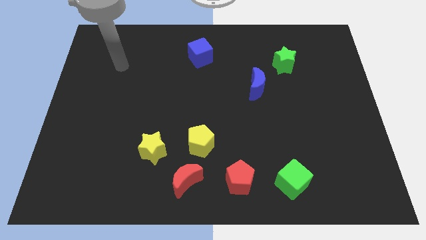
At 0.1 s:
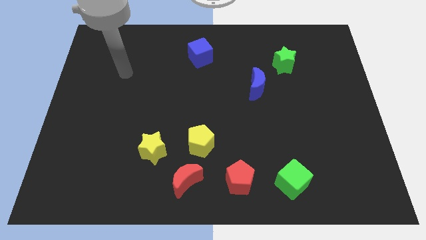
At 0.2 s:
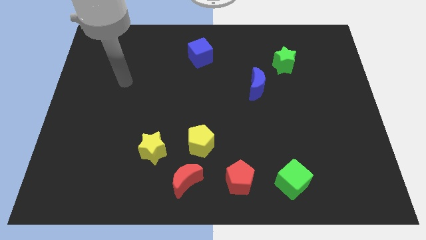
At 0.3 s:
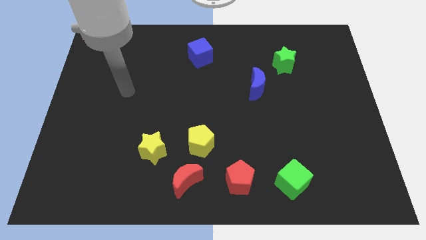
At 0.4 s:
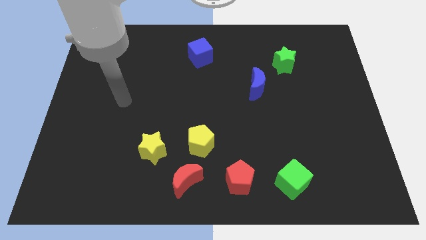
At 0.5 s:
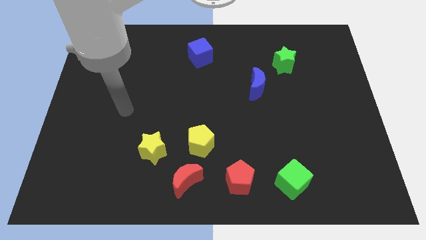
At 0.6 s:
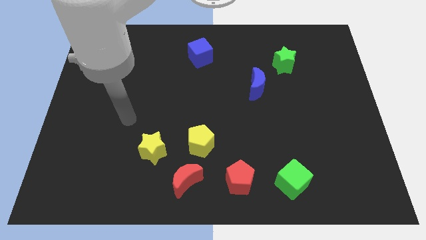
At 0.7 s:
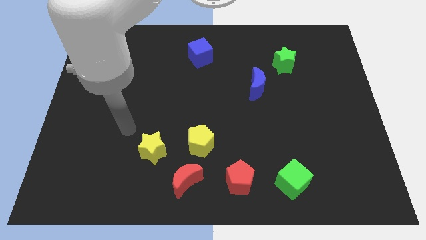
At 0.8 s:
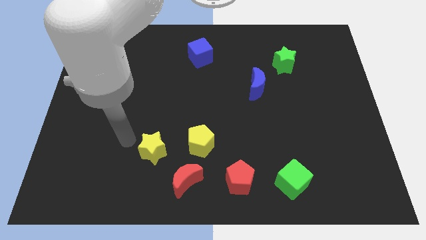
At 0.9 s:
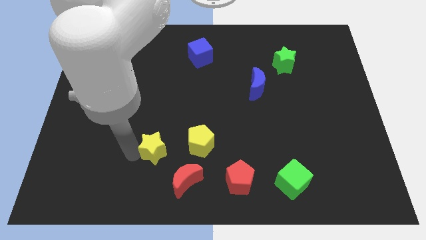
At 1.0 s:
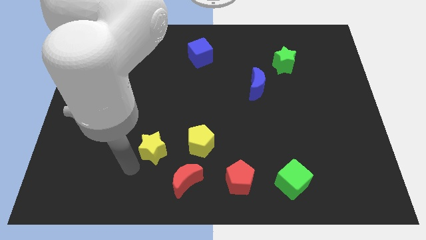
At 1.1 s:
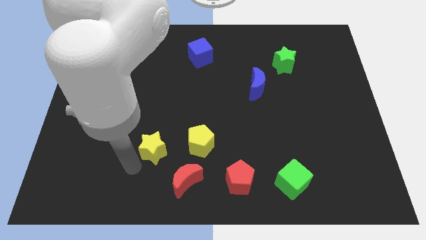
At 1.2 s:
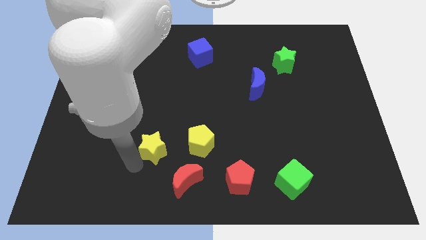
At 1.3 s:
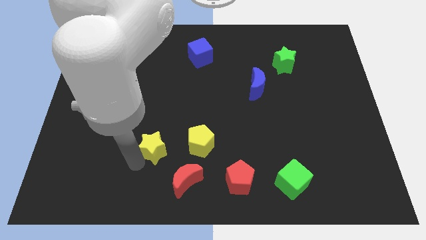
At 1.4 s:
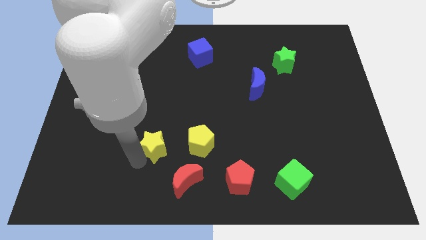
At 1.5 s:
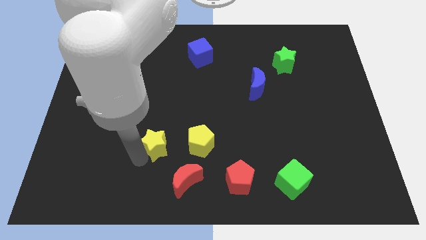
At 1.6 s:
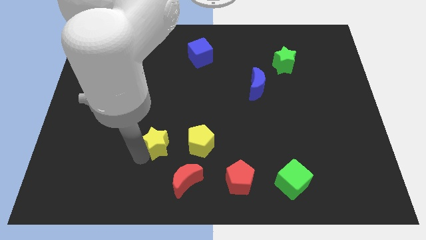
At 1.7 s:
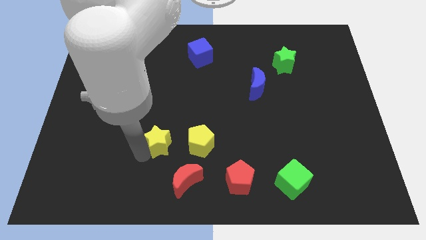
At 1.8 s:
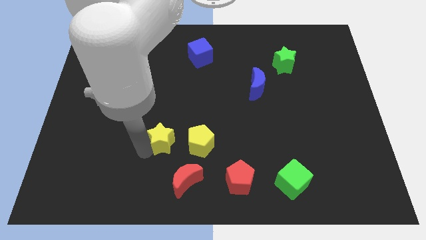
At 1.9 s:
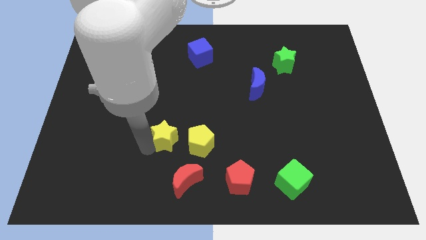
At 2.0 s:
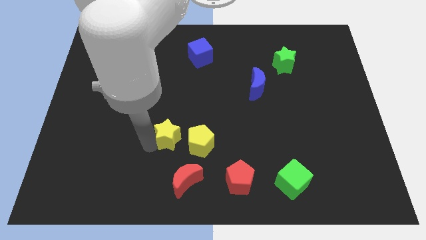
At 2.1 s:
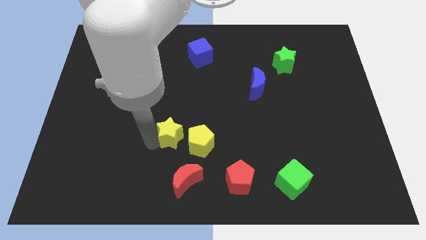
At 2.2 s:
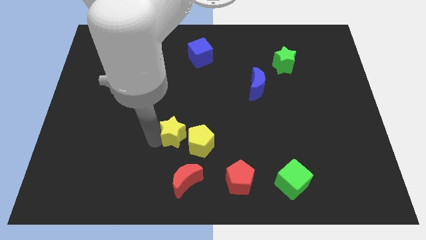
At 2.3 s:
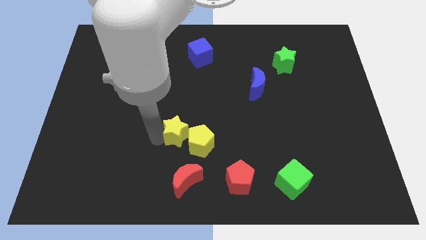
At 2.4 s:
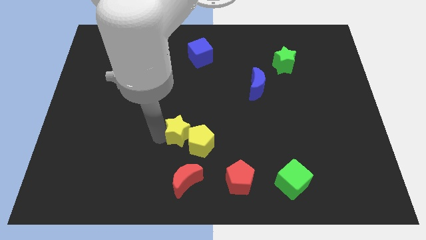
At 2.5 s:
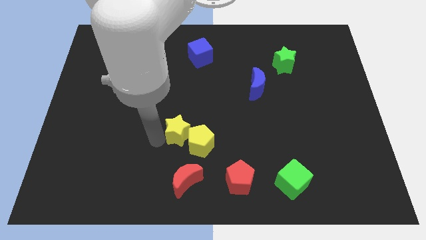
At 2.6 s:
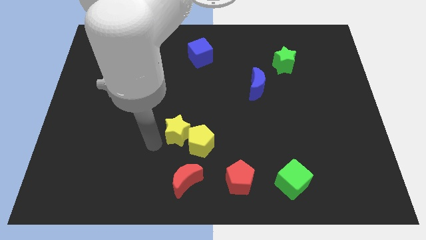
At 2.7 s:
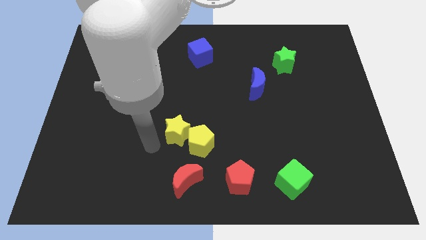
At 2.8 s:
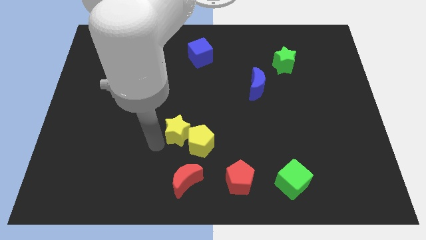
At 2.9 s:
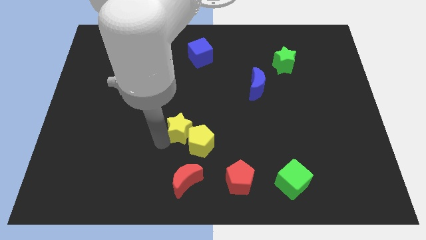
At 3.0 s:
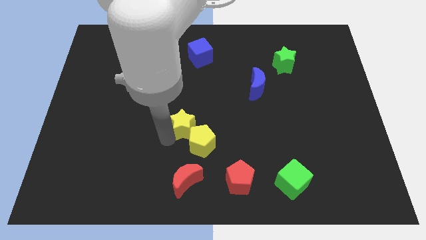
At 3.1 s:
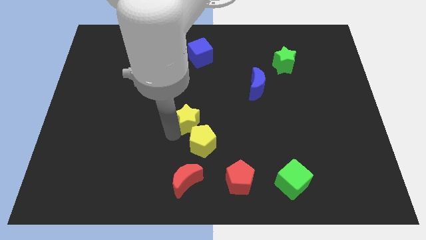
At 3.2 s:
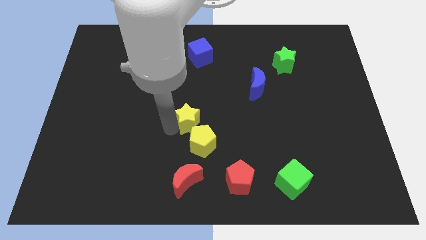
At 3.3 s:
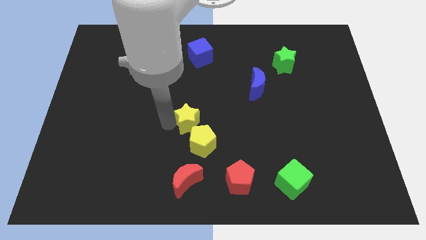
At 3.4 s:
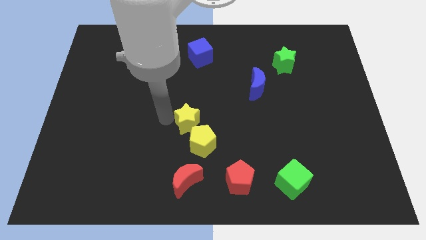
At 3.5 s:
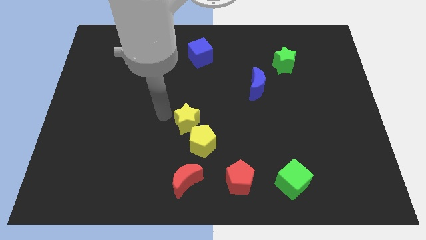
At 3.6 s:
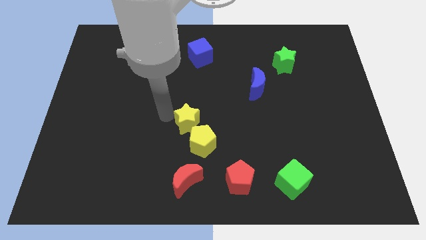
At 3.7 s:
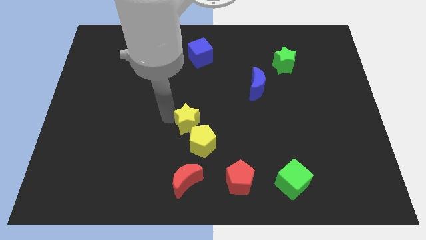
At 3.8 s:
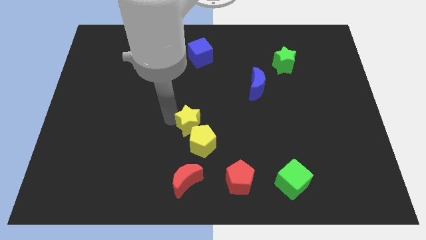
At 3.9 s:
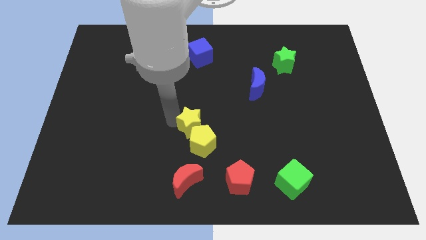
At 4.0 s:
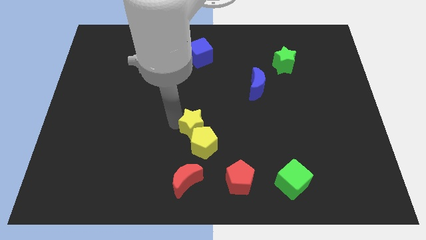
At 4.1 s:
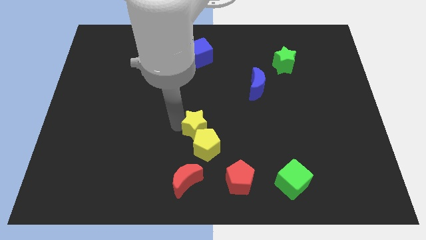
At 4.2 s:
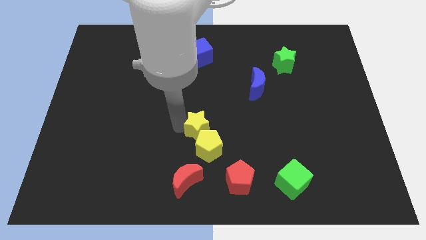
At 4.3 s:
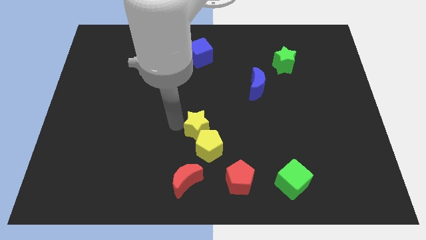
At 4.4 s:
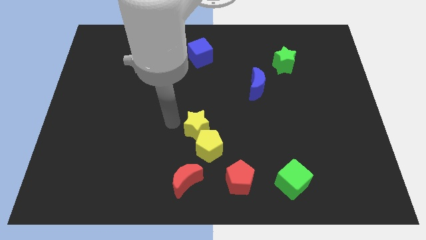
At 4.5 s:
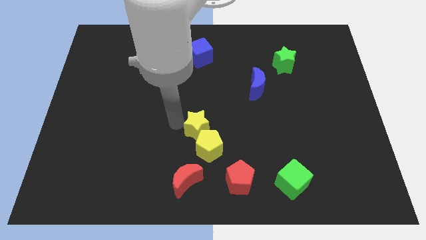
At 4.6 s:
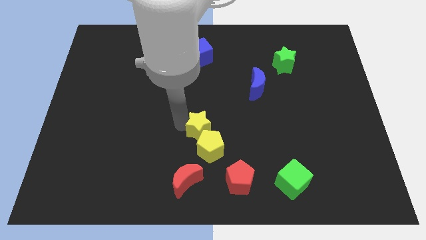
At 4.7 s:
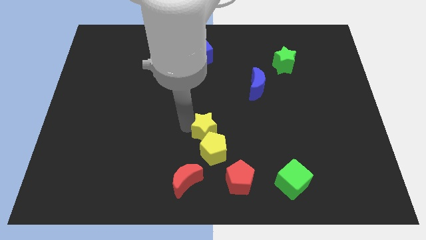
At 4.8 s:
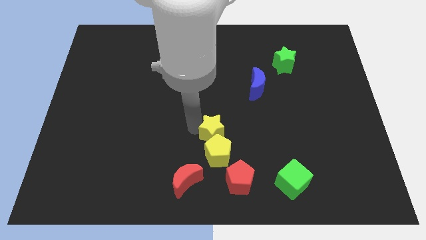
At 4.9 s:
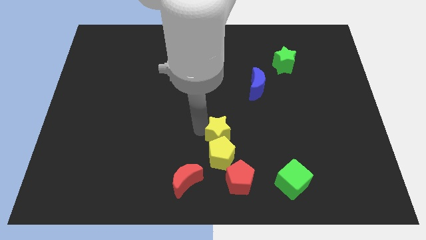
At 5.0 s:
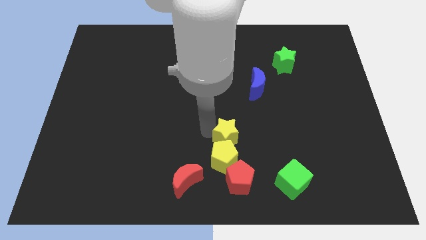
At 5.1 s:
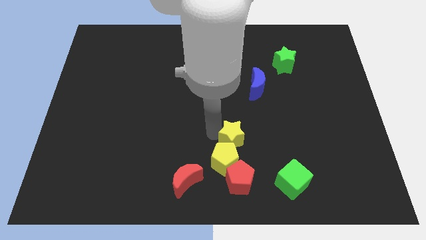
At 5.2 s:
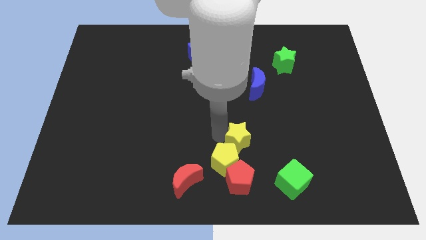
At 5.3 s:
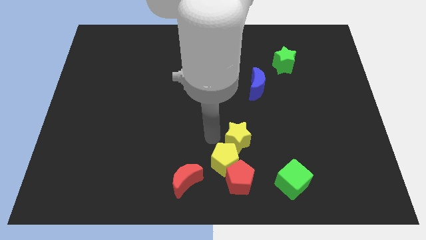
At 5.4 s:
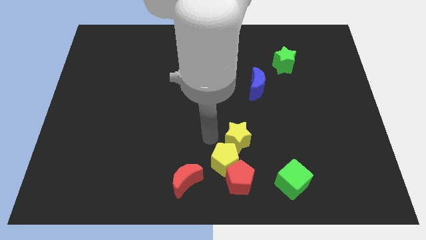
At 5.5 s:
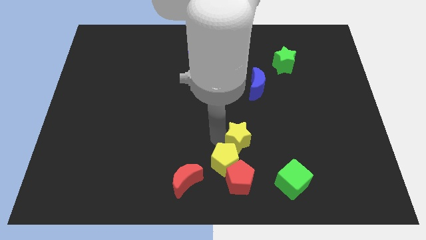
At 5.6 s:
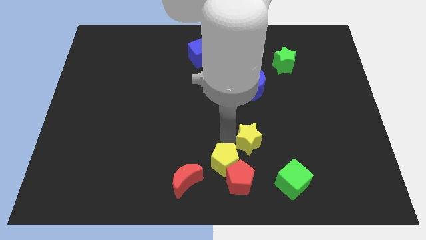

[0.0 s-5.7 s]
slide the yellow star right

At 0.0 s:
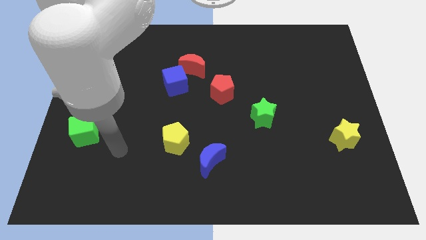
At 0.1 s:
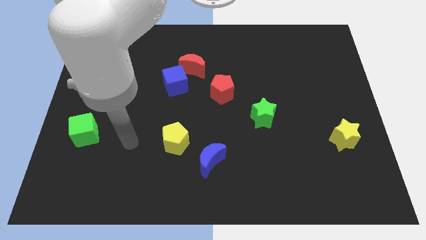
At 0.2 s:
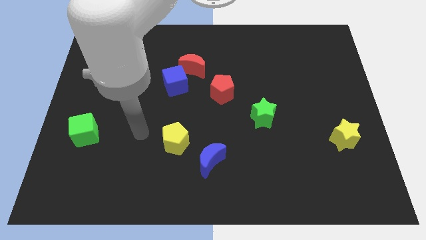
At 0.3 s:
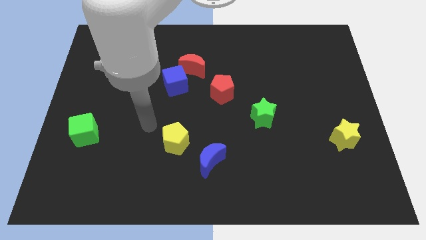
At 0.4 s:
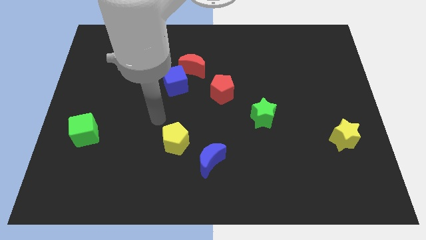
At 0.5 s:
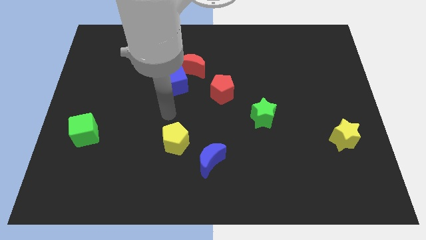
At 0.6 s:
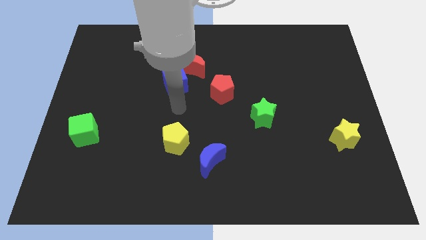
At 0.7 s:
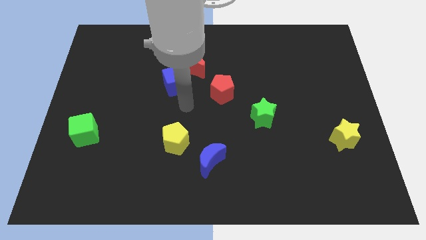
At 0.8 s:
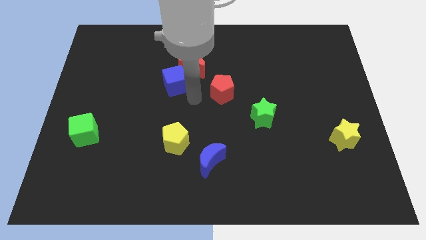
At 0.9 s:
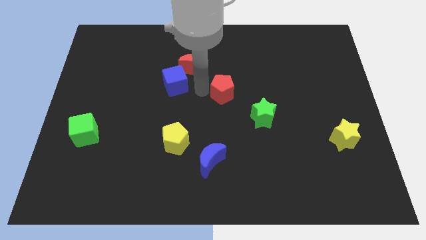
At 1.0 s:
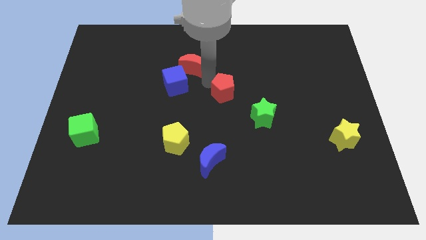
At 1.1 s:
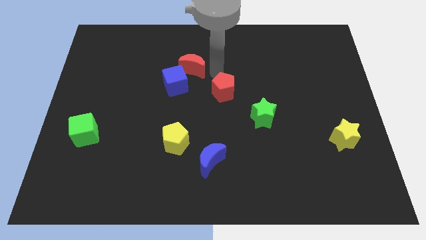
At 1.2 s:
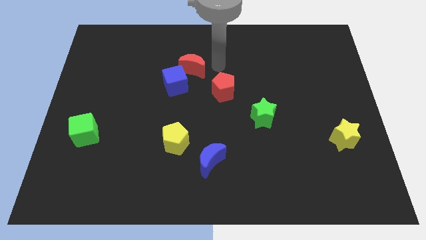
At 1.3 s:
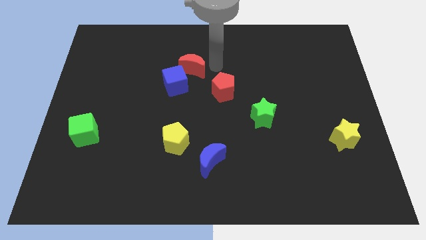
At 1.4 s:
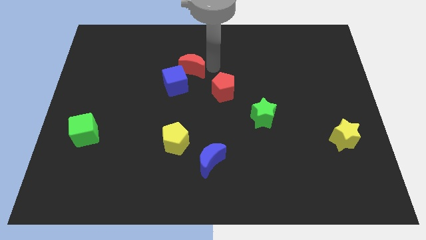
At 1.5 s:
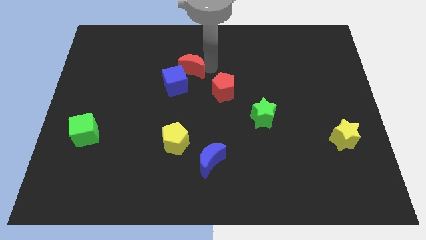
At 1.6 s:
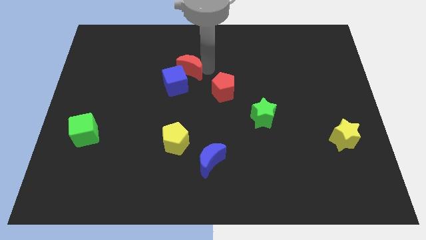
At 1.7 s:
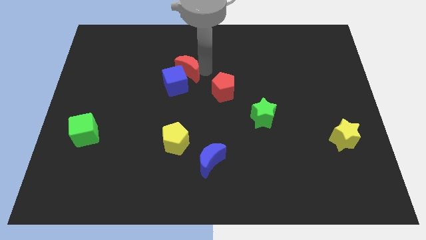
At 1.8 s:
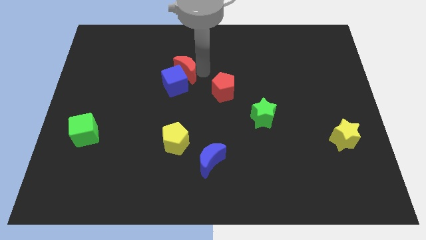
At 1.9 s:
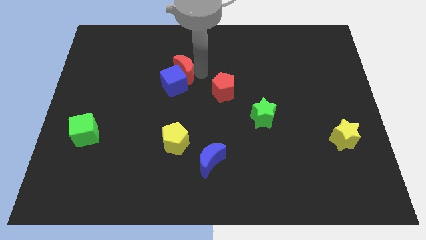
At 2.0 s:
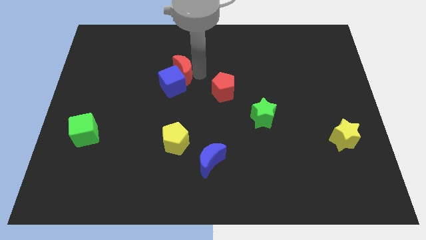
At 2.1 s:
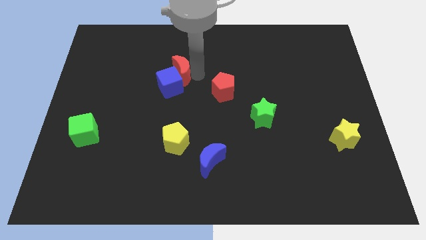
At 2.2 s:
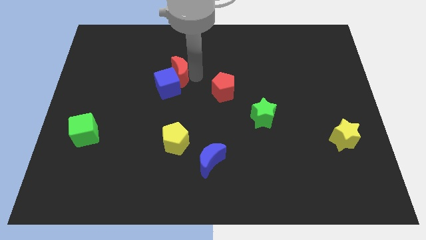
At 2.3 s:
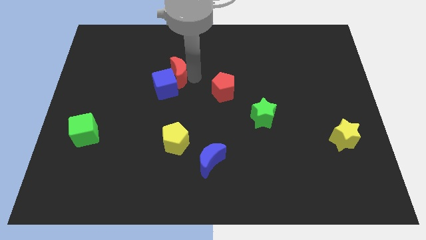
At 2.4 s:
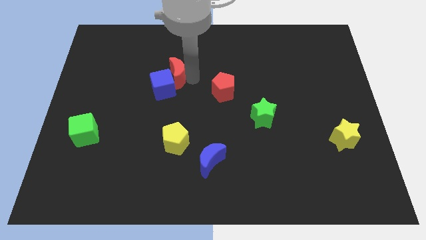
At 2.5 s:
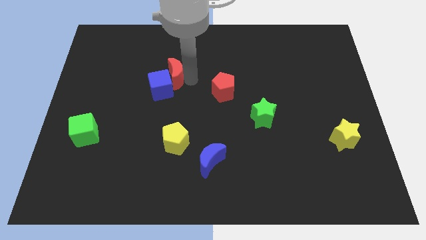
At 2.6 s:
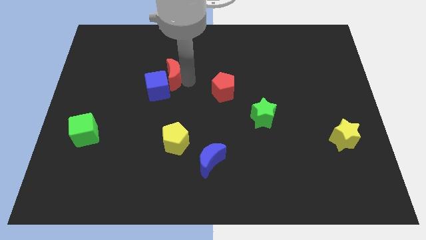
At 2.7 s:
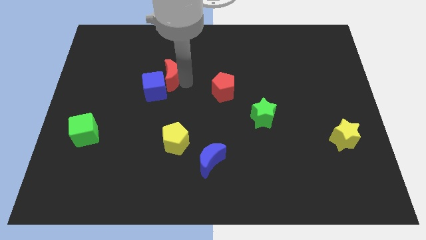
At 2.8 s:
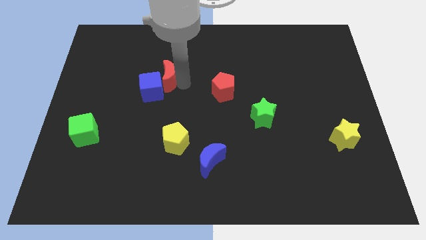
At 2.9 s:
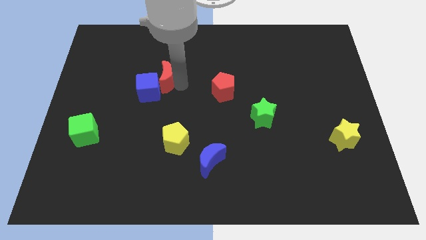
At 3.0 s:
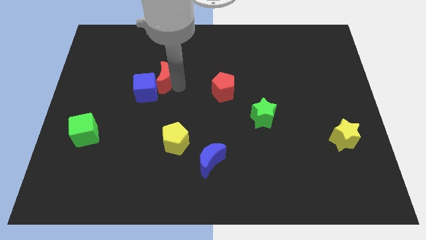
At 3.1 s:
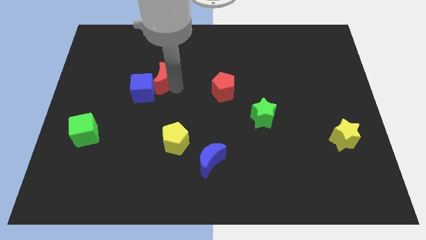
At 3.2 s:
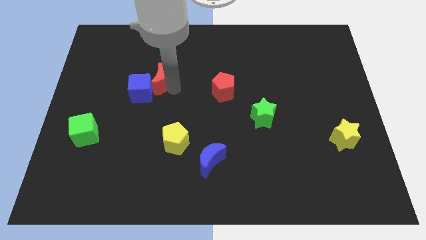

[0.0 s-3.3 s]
push the red moon slightly left
